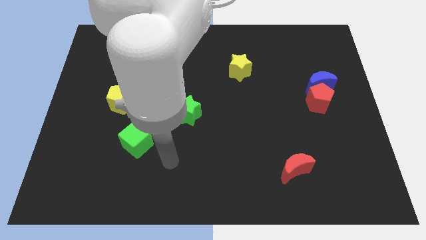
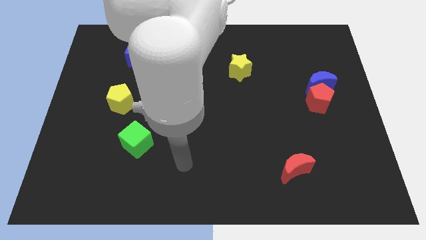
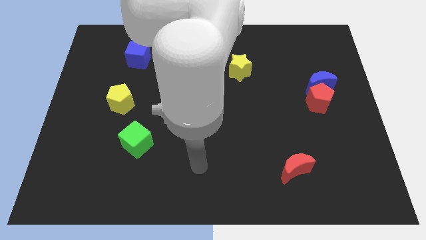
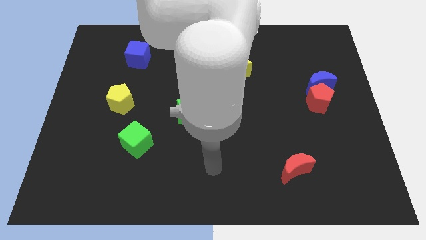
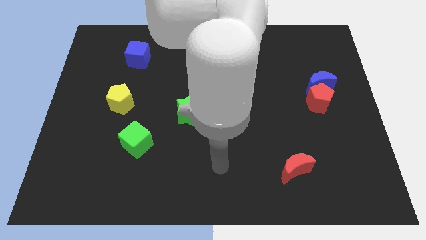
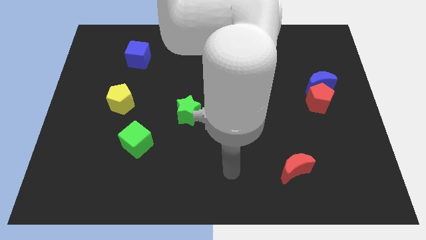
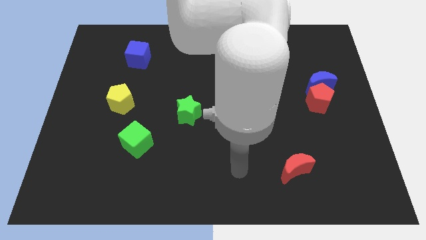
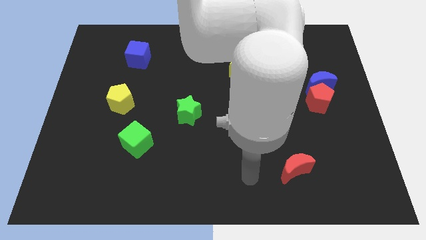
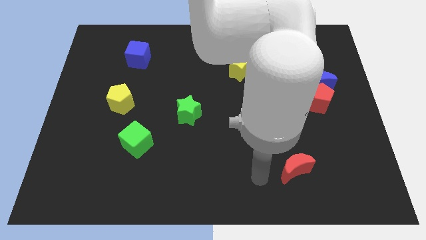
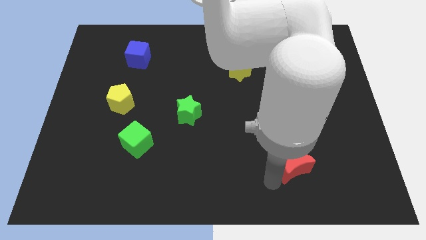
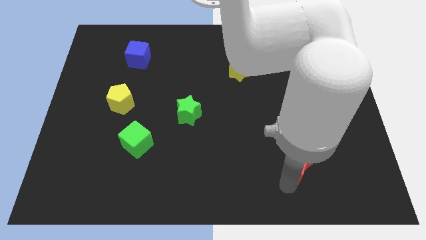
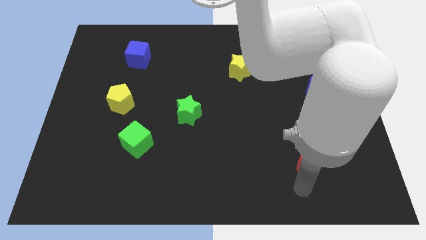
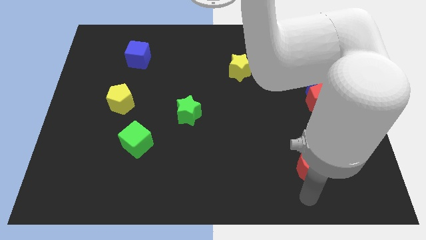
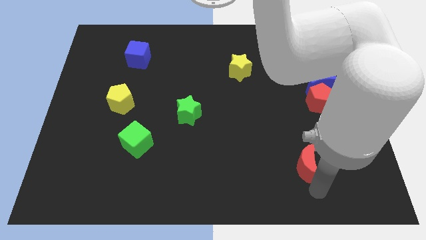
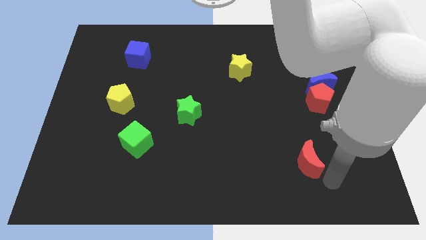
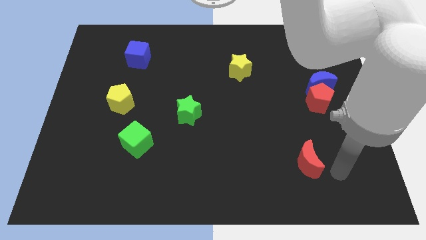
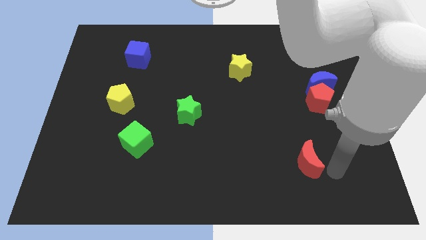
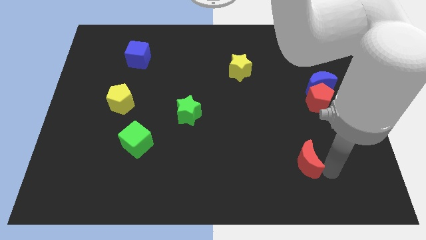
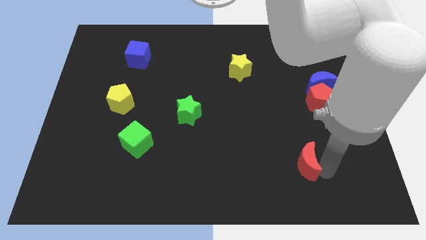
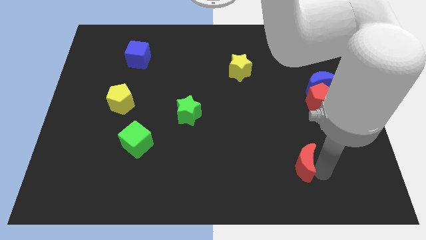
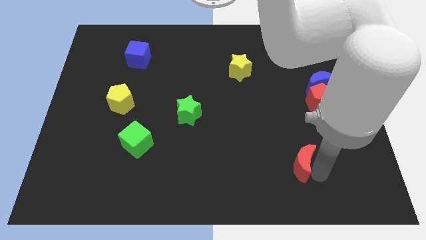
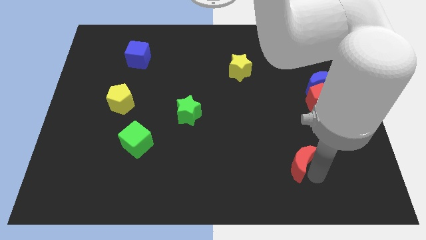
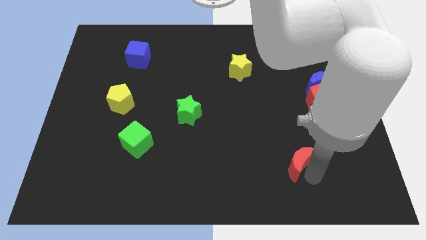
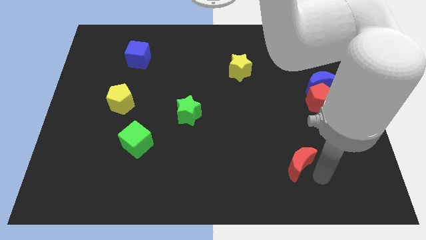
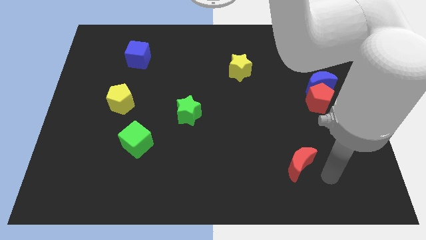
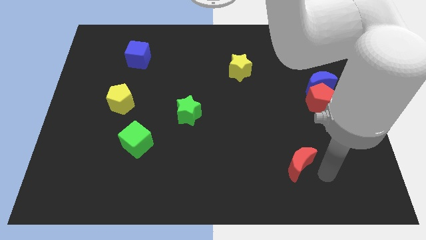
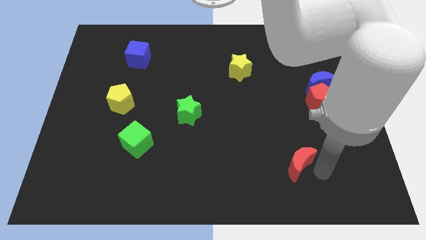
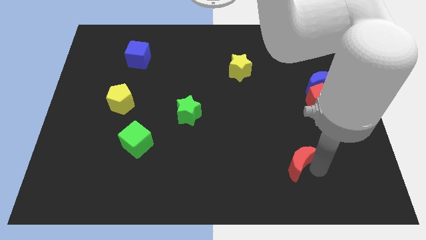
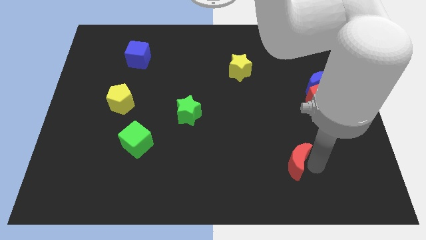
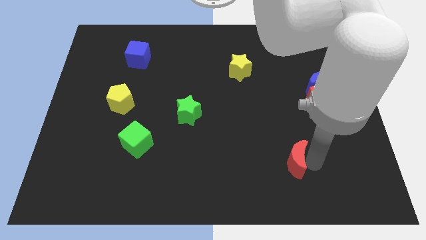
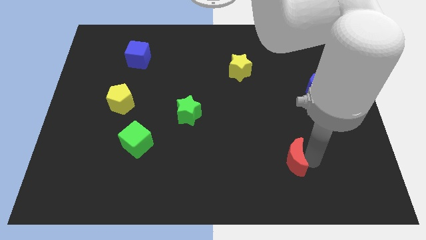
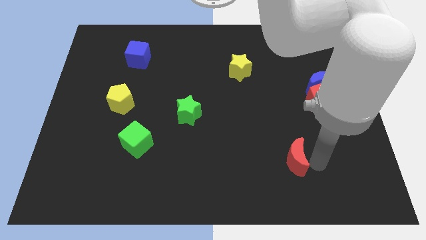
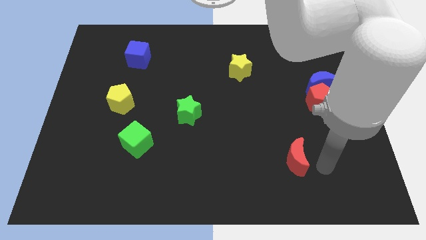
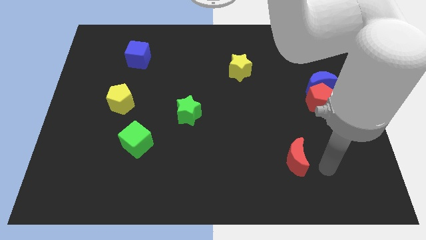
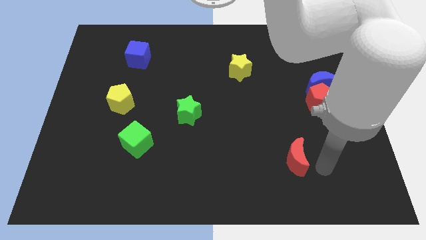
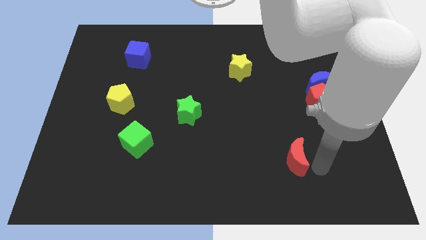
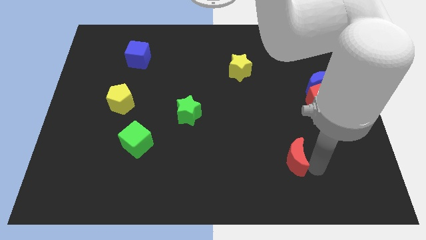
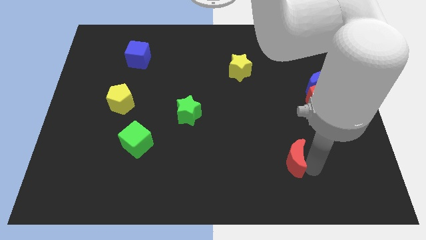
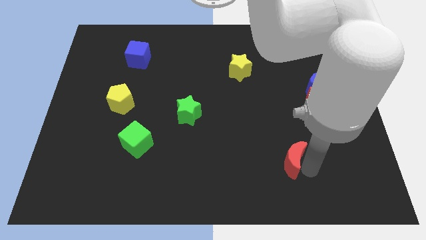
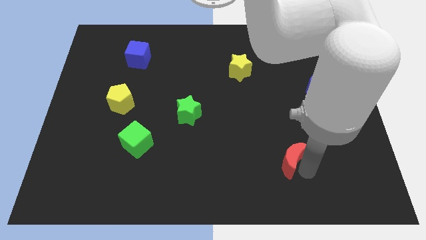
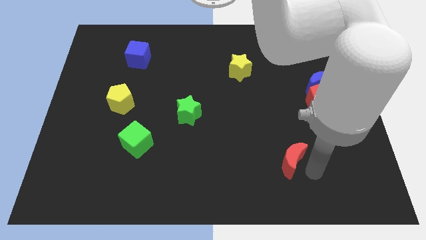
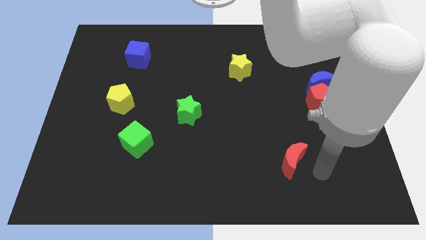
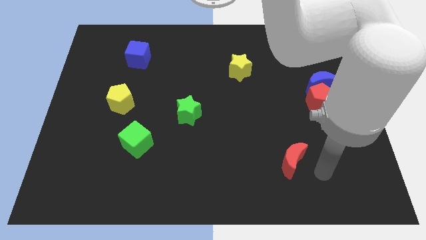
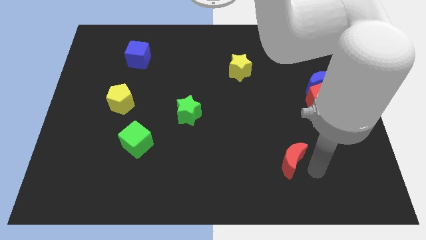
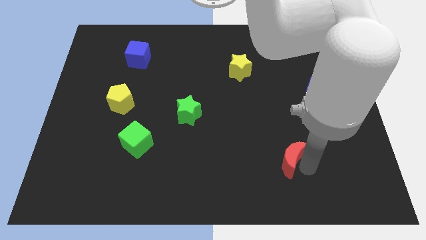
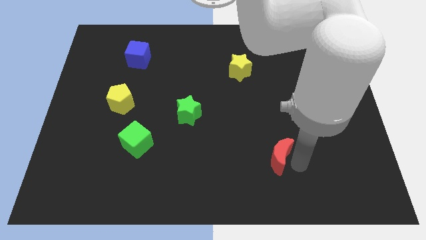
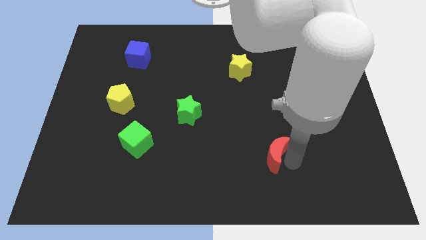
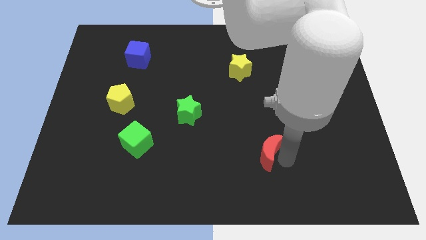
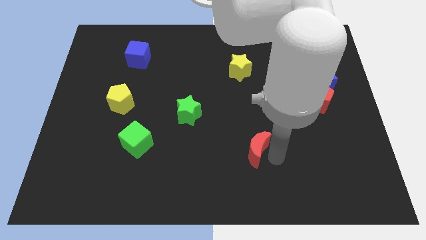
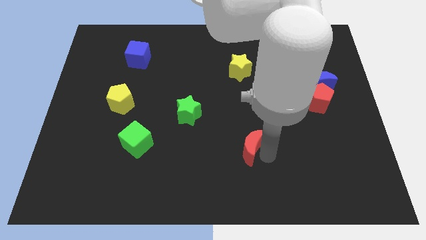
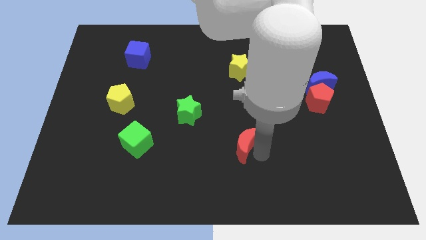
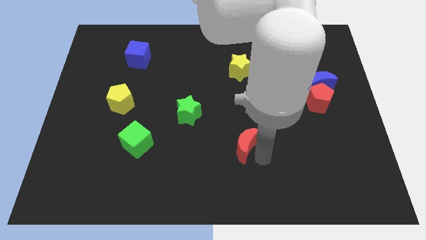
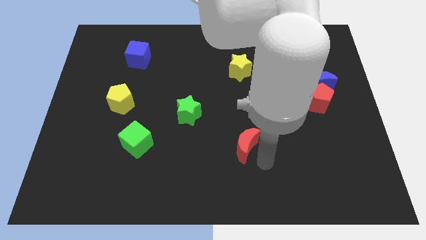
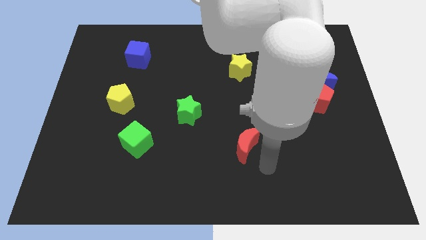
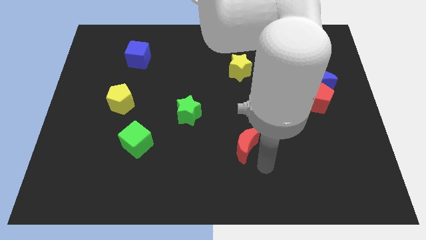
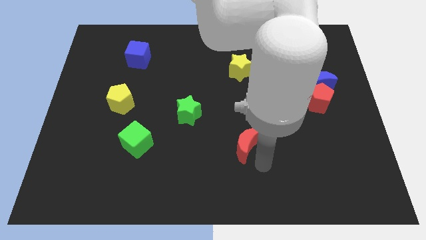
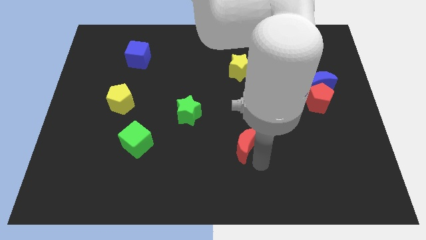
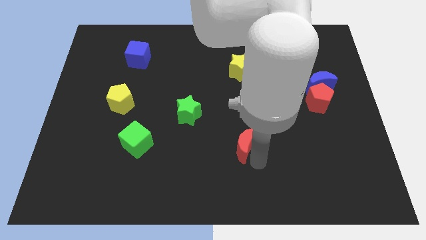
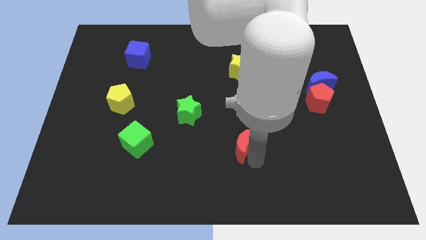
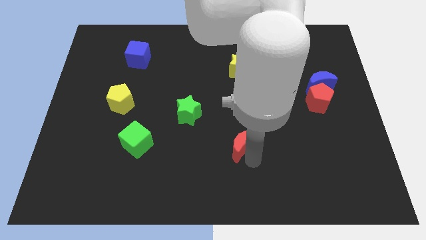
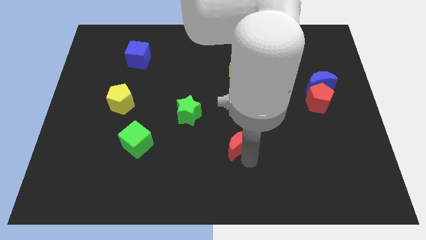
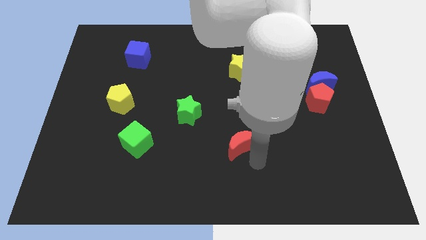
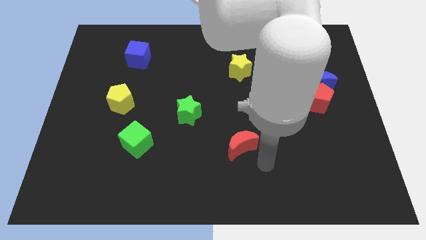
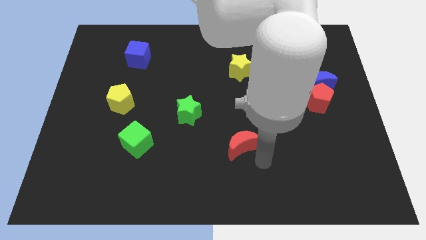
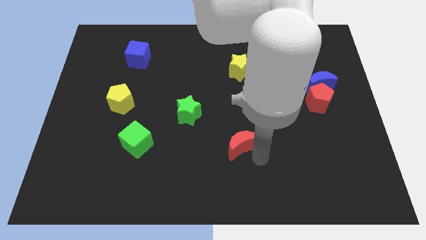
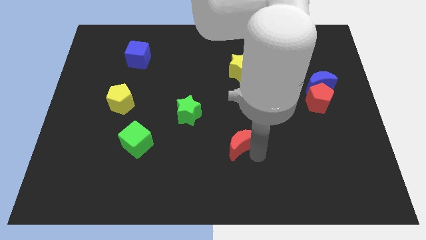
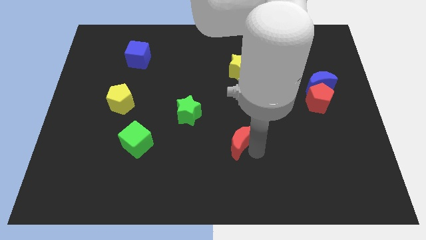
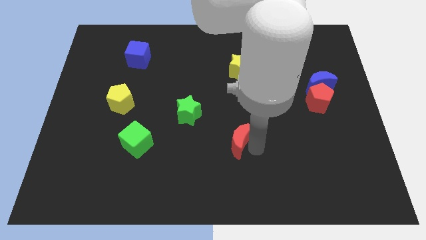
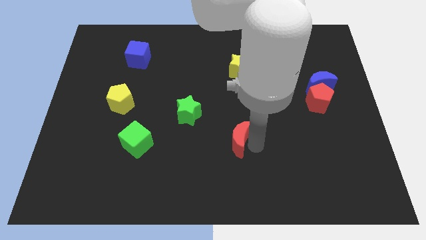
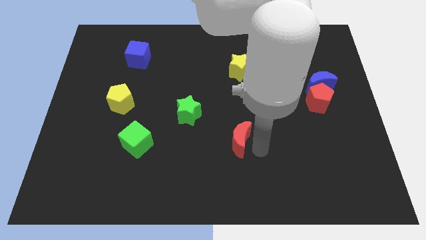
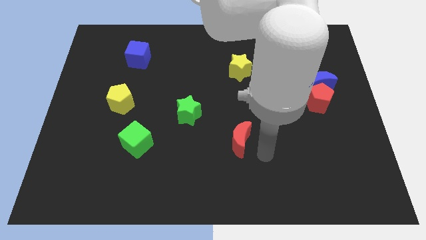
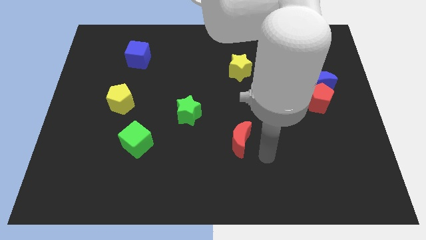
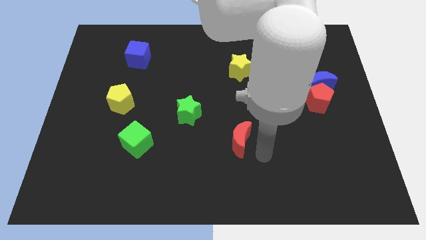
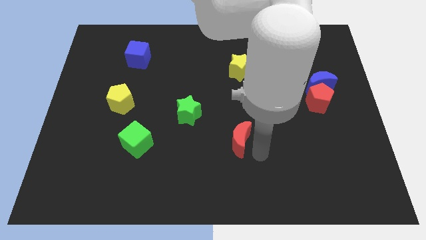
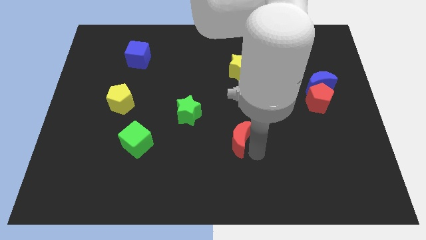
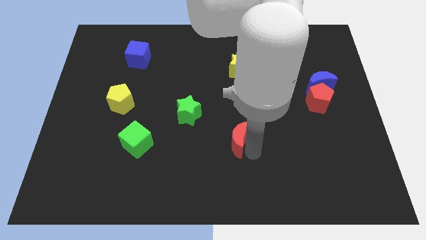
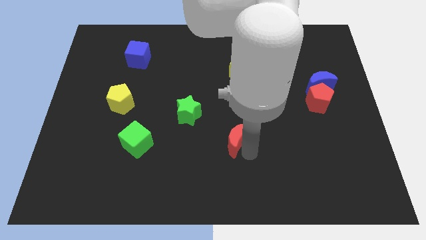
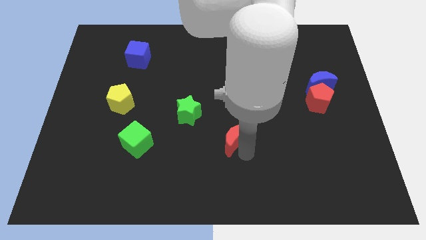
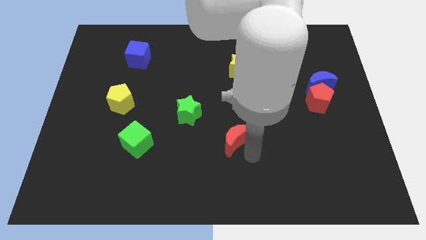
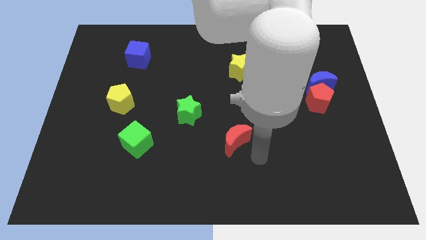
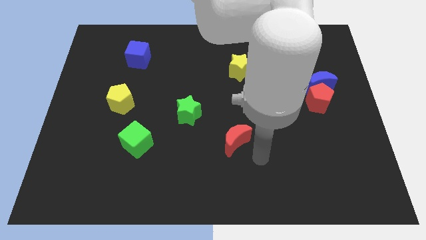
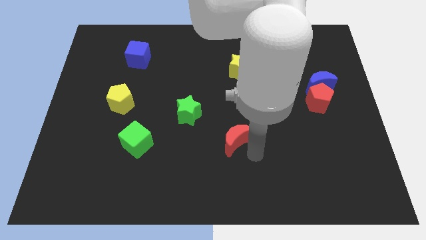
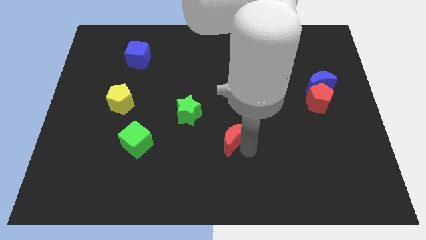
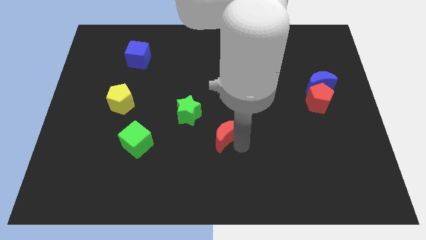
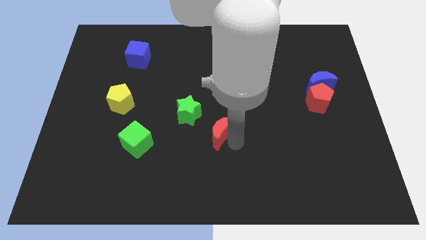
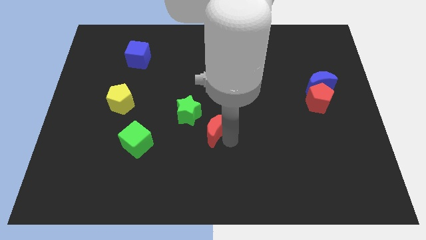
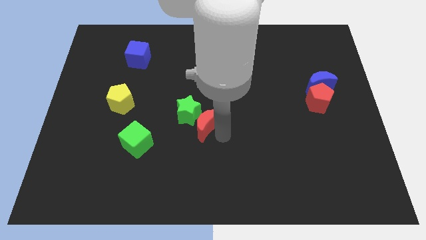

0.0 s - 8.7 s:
put the red moon next to the green star
